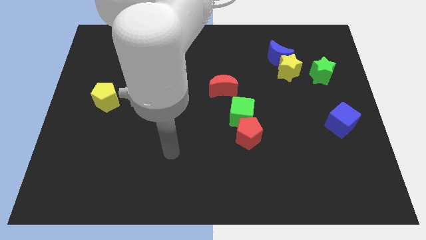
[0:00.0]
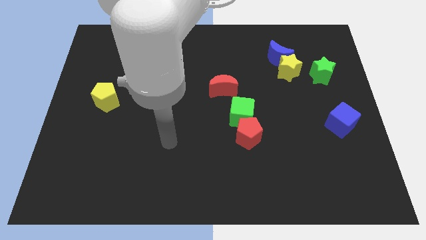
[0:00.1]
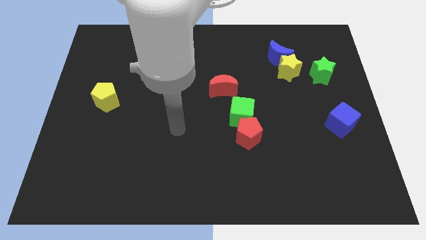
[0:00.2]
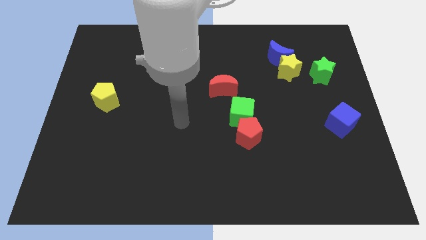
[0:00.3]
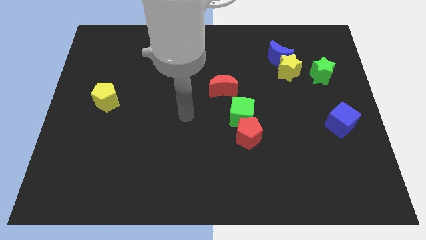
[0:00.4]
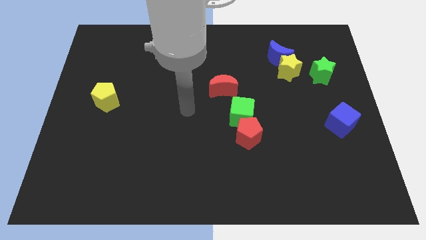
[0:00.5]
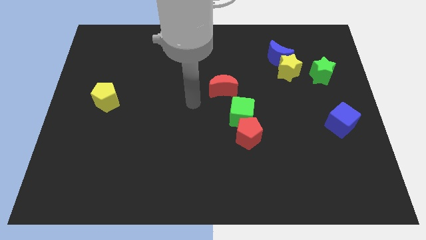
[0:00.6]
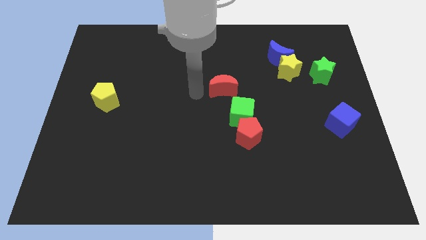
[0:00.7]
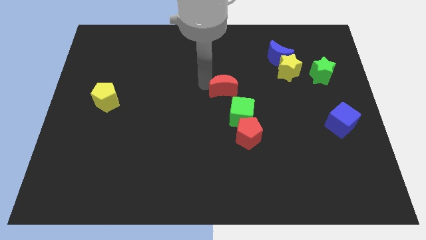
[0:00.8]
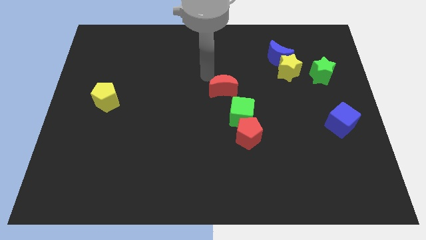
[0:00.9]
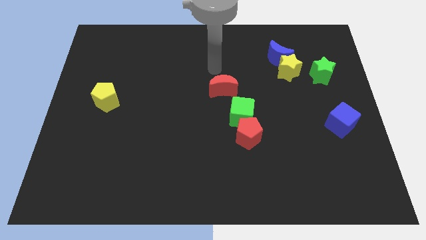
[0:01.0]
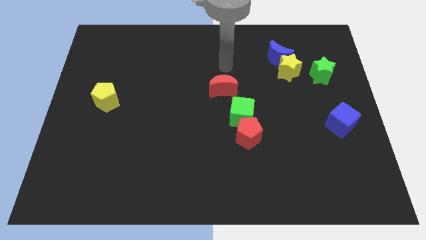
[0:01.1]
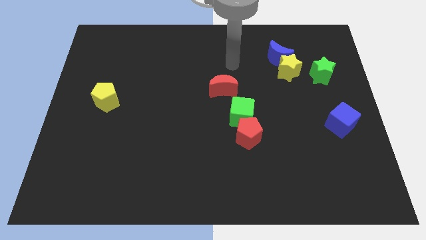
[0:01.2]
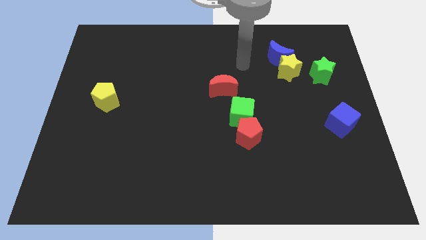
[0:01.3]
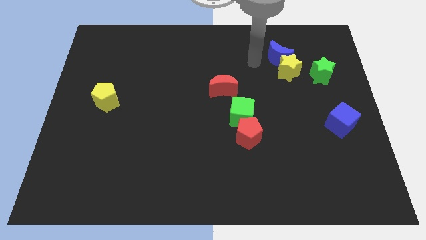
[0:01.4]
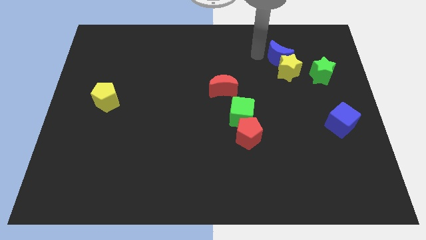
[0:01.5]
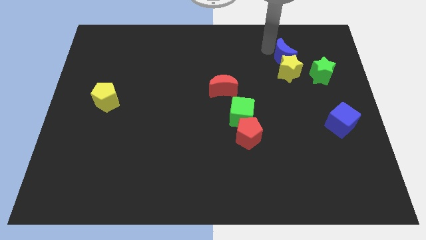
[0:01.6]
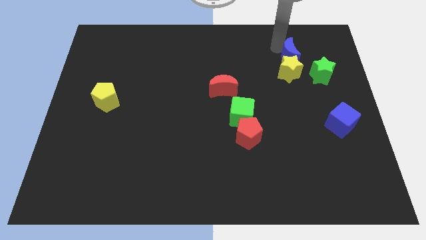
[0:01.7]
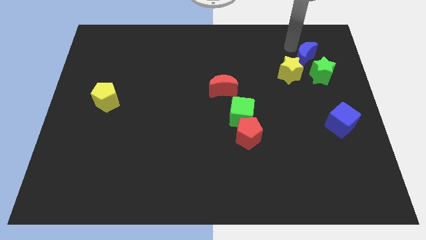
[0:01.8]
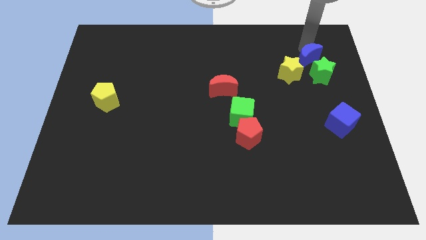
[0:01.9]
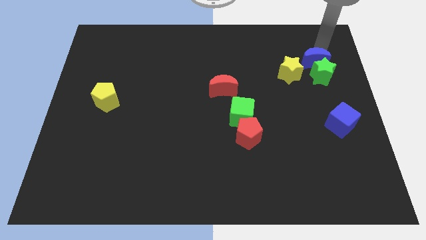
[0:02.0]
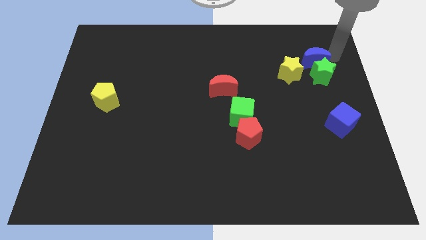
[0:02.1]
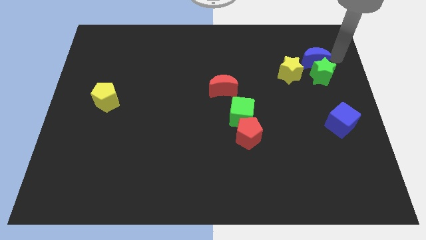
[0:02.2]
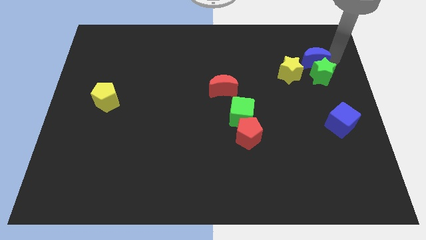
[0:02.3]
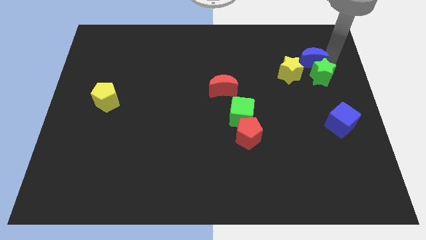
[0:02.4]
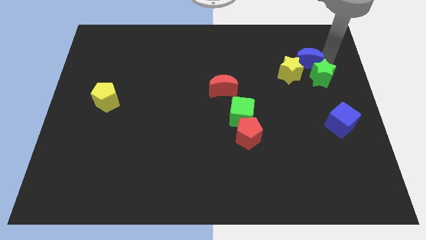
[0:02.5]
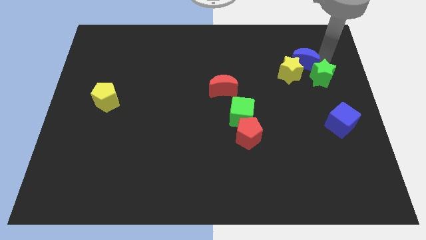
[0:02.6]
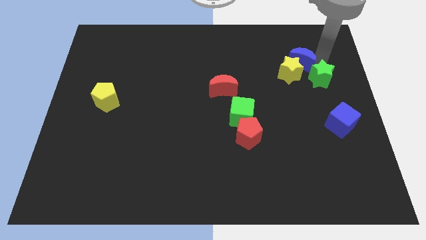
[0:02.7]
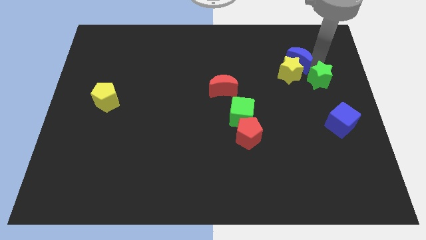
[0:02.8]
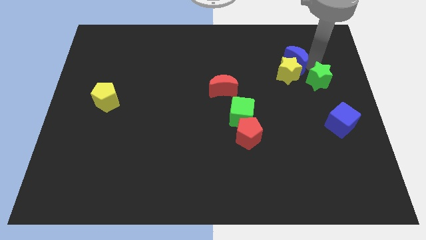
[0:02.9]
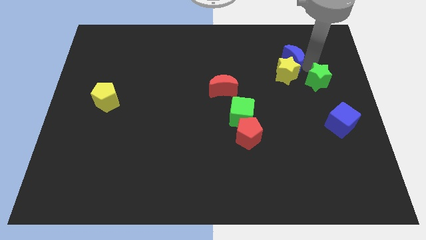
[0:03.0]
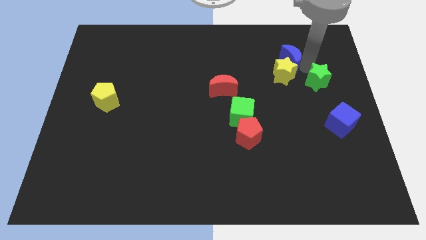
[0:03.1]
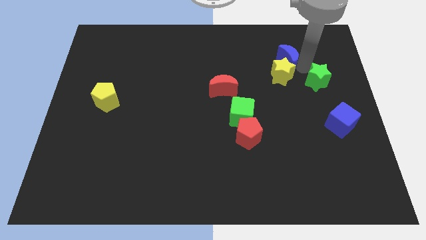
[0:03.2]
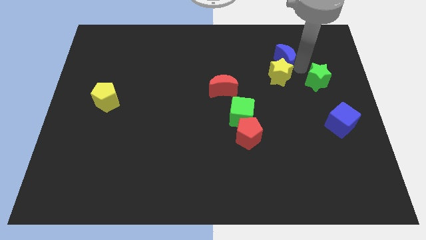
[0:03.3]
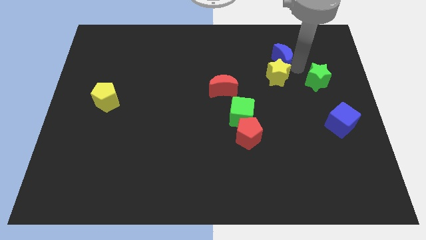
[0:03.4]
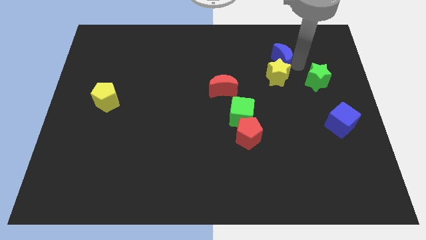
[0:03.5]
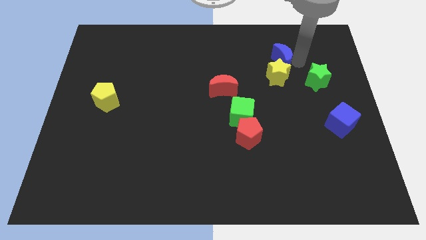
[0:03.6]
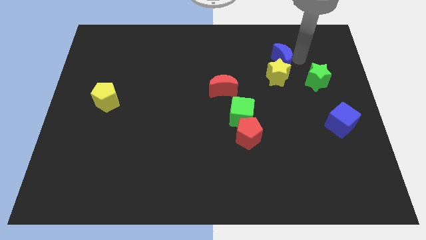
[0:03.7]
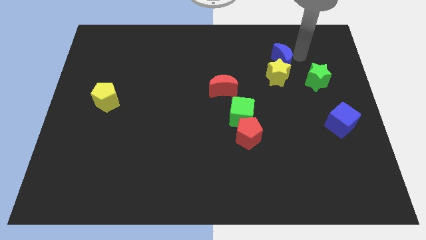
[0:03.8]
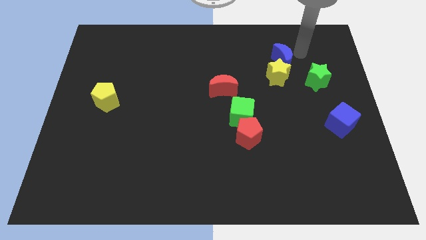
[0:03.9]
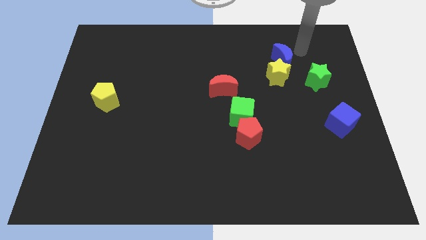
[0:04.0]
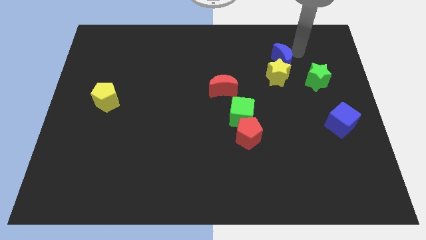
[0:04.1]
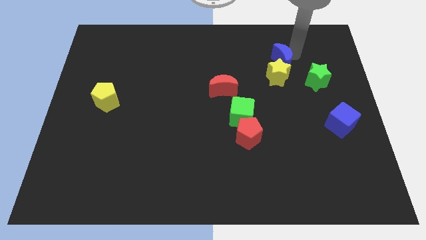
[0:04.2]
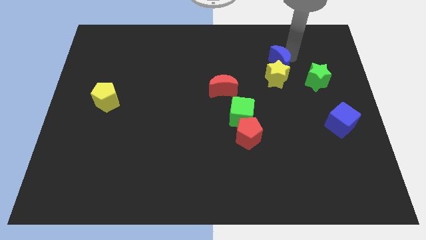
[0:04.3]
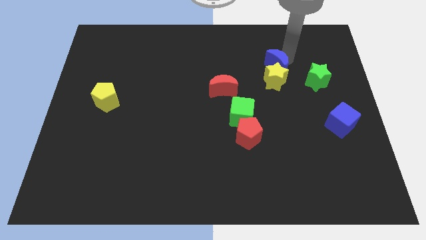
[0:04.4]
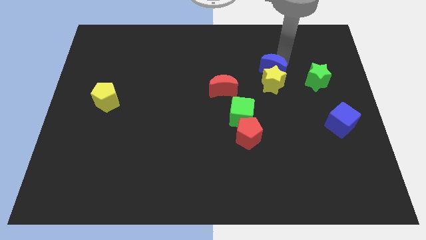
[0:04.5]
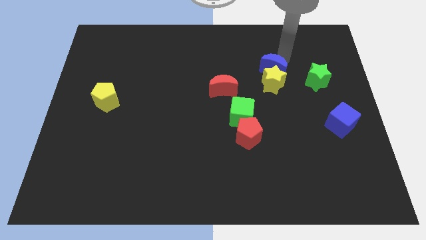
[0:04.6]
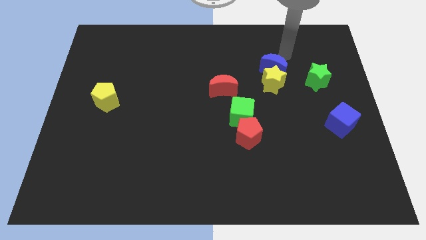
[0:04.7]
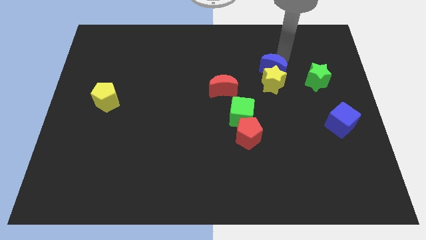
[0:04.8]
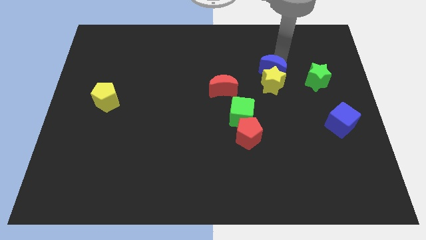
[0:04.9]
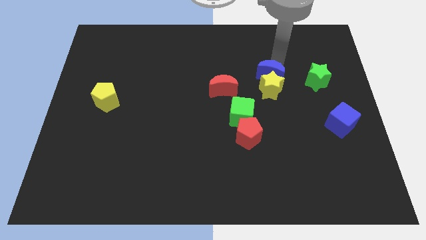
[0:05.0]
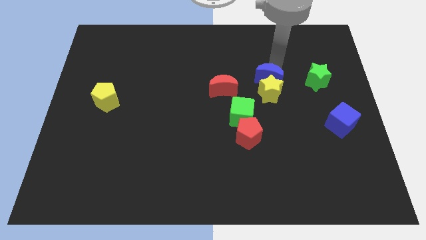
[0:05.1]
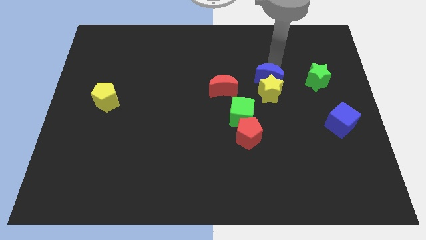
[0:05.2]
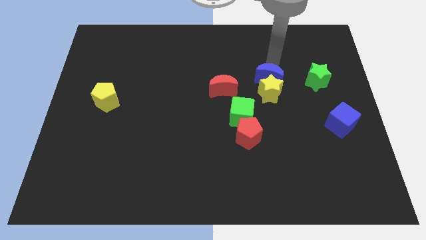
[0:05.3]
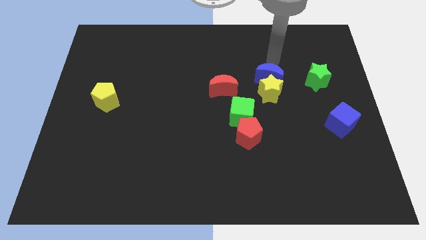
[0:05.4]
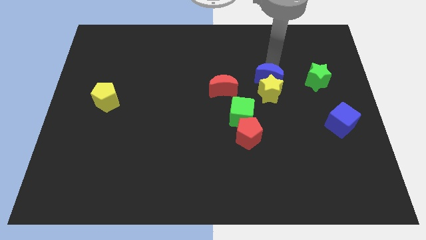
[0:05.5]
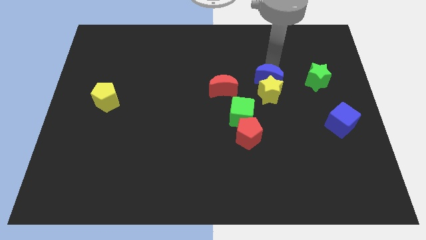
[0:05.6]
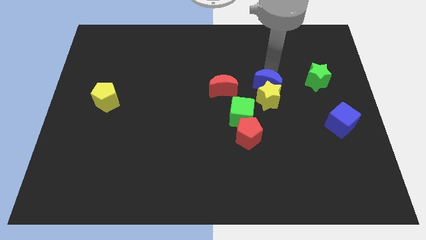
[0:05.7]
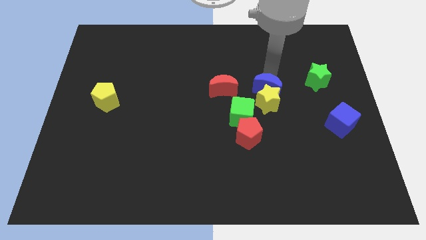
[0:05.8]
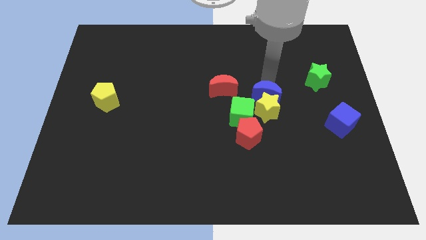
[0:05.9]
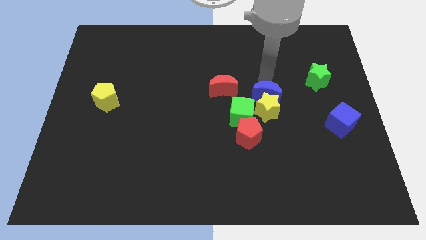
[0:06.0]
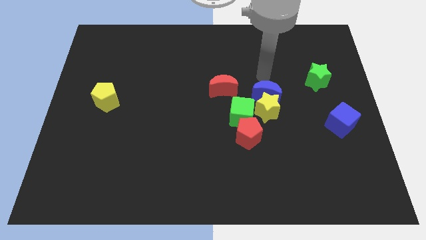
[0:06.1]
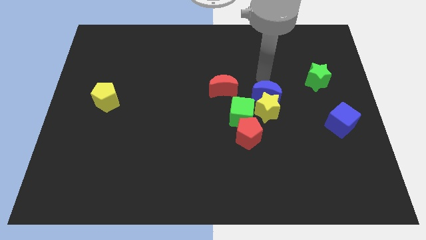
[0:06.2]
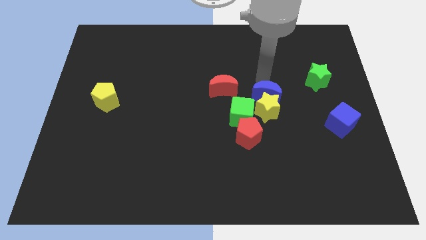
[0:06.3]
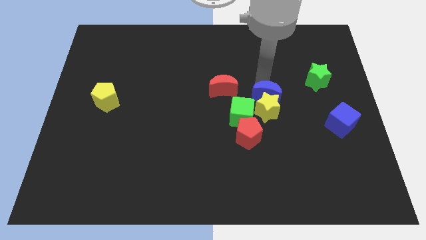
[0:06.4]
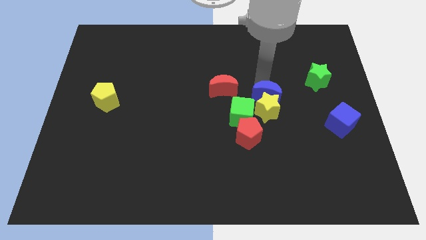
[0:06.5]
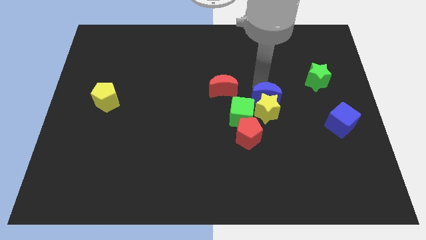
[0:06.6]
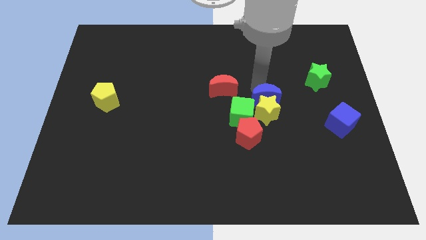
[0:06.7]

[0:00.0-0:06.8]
slide the blue moon to the top right side of the red pentagon

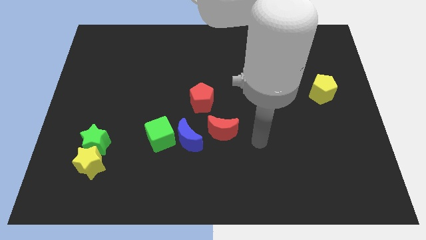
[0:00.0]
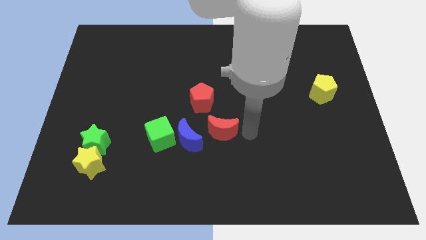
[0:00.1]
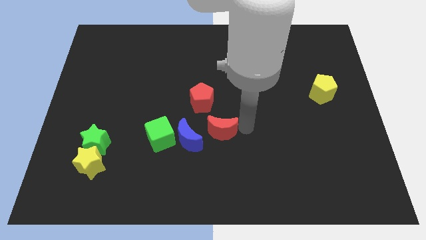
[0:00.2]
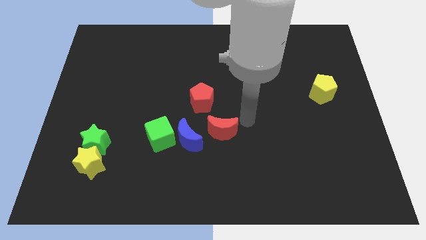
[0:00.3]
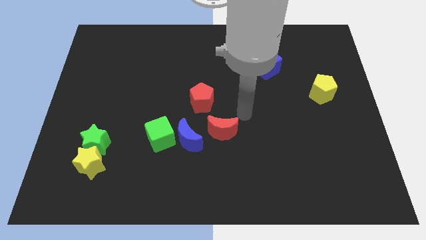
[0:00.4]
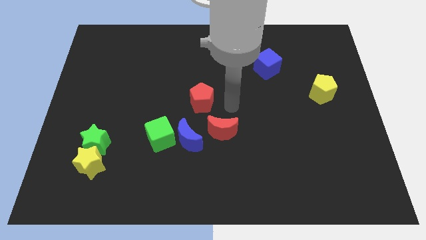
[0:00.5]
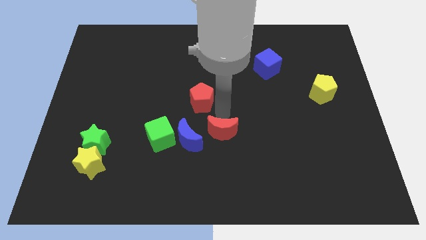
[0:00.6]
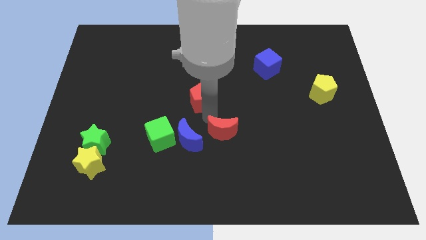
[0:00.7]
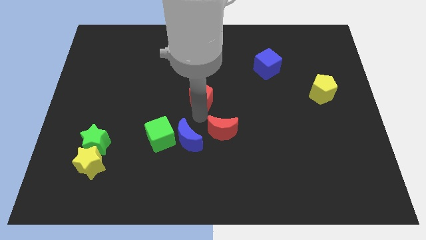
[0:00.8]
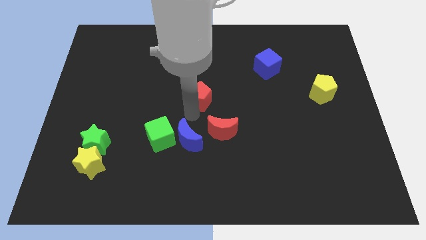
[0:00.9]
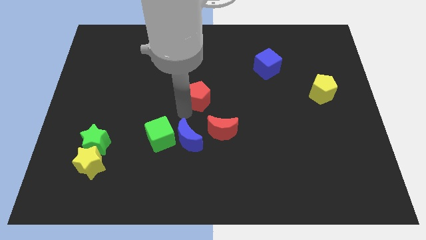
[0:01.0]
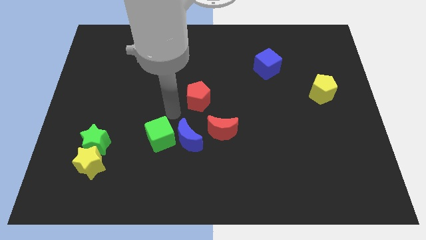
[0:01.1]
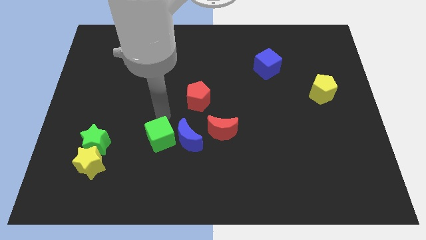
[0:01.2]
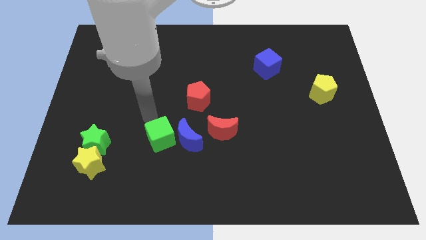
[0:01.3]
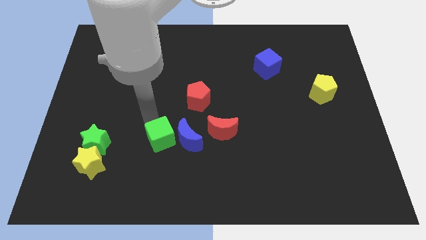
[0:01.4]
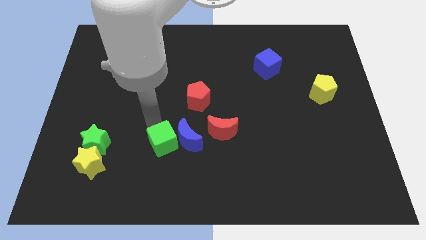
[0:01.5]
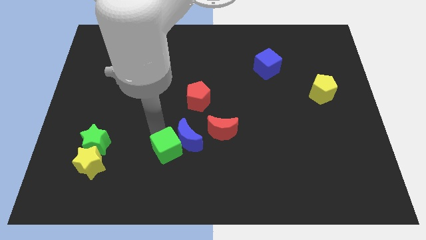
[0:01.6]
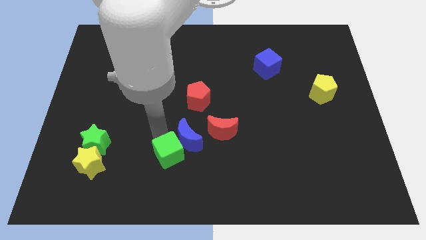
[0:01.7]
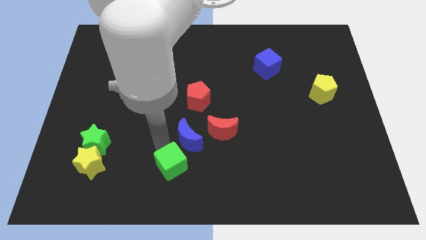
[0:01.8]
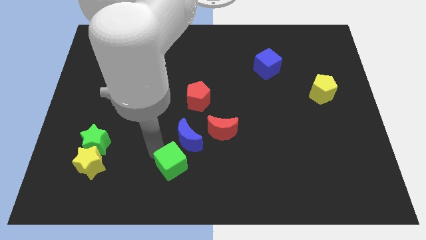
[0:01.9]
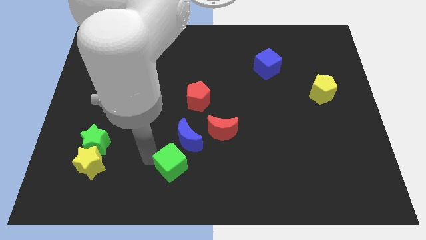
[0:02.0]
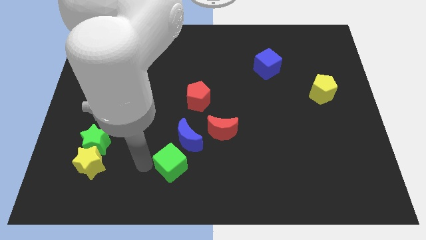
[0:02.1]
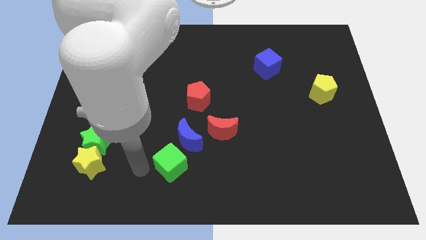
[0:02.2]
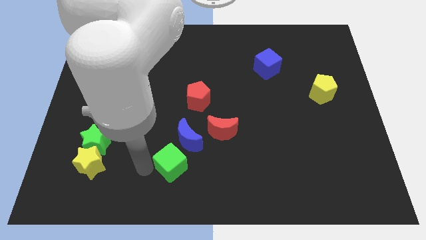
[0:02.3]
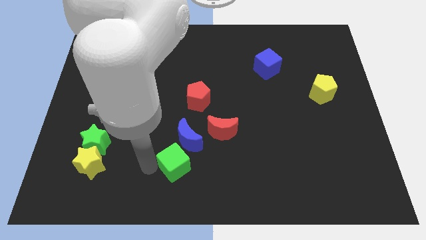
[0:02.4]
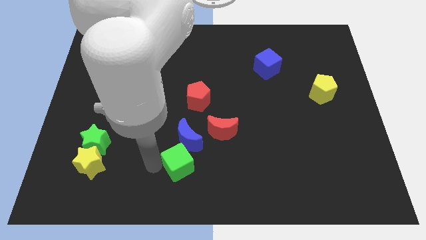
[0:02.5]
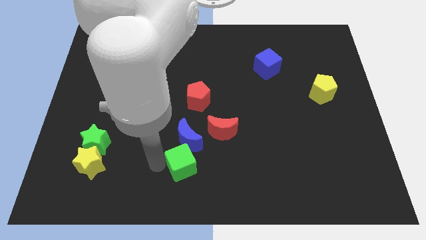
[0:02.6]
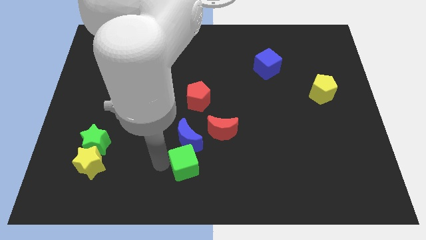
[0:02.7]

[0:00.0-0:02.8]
push the green cube to the bottom right side of the blue moon
